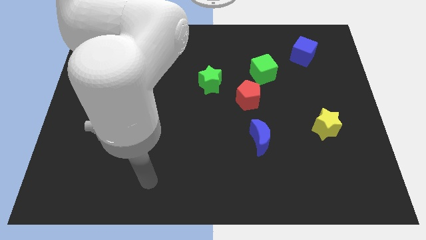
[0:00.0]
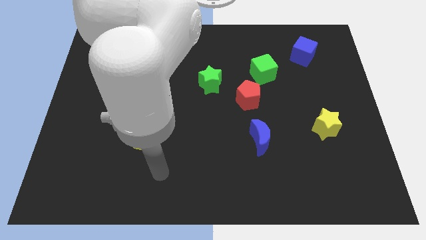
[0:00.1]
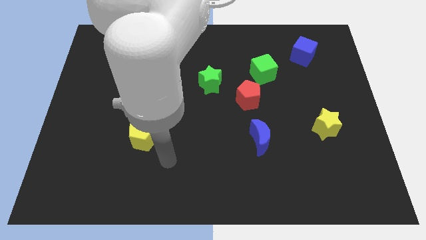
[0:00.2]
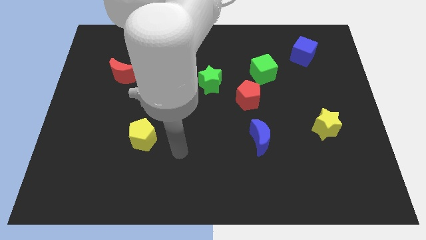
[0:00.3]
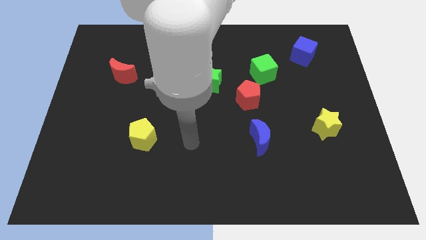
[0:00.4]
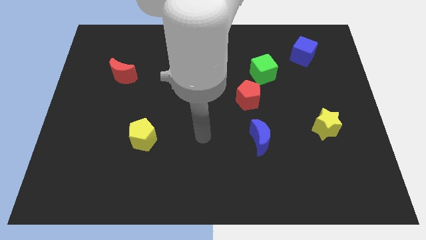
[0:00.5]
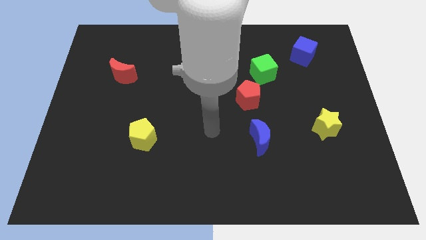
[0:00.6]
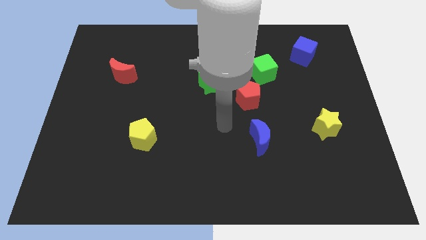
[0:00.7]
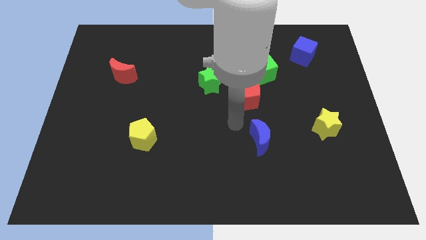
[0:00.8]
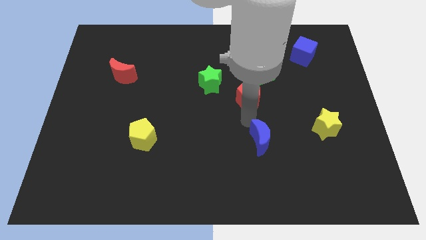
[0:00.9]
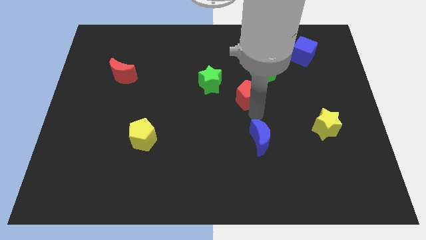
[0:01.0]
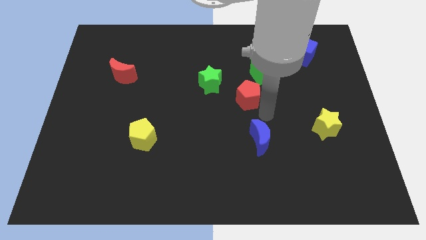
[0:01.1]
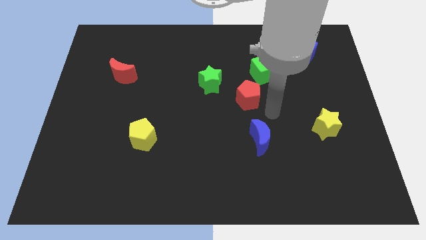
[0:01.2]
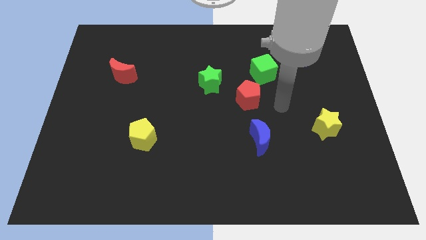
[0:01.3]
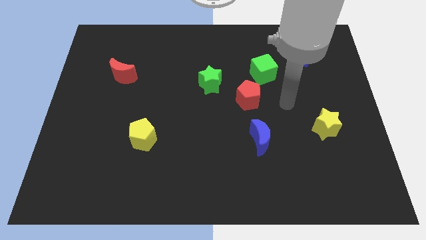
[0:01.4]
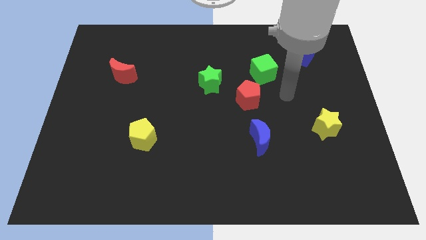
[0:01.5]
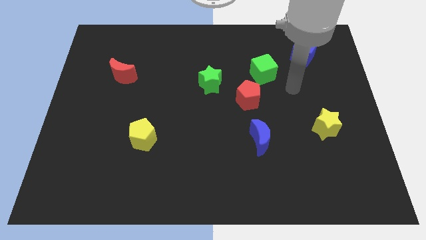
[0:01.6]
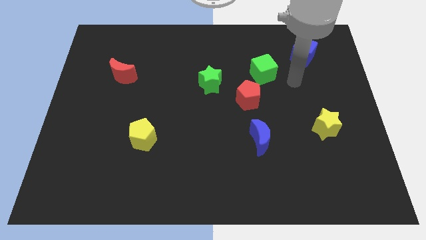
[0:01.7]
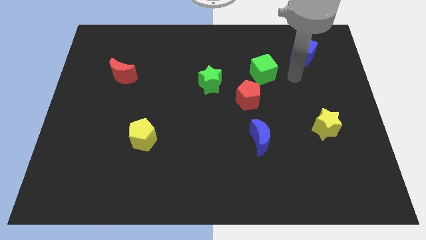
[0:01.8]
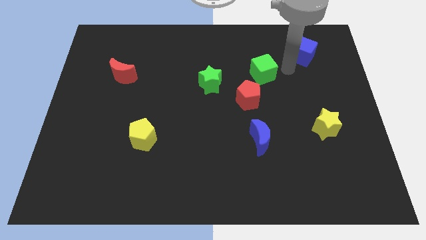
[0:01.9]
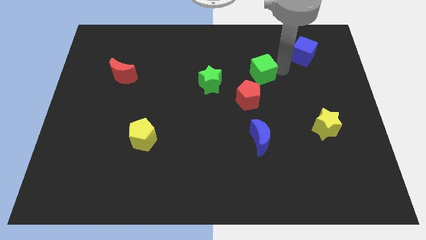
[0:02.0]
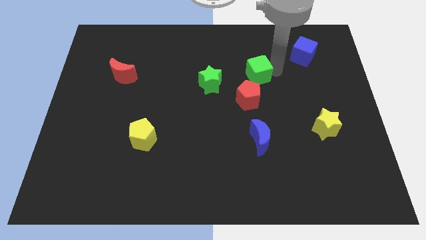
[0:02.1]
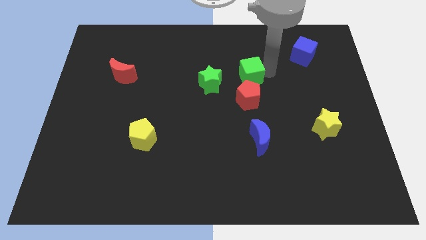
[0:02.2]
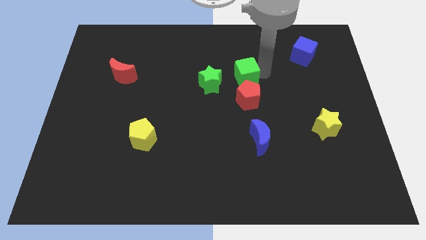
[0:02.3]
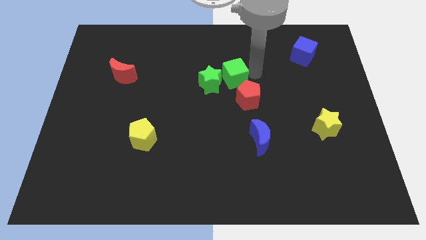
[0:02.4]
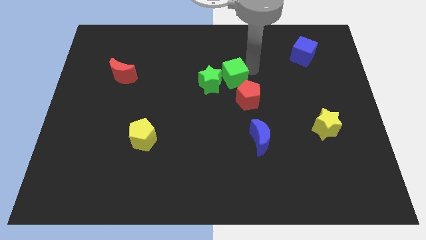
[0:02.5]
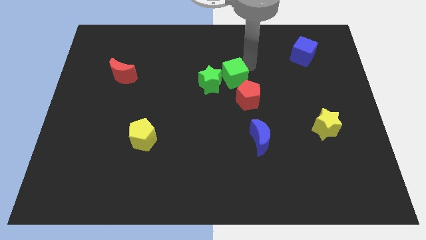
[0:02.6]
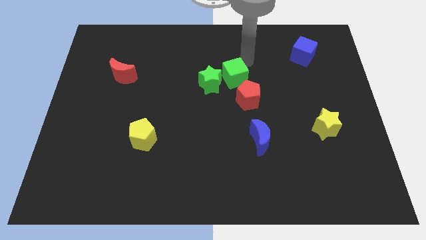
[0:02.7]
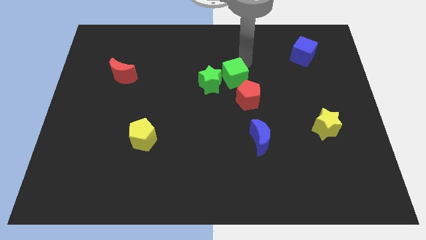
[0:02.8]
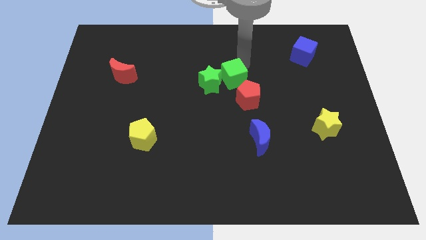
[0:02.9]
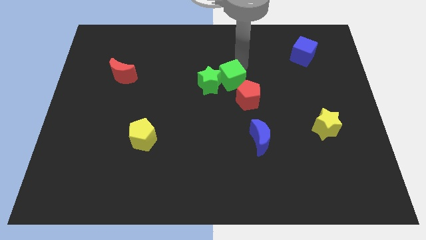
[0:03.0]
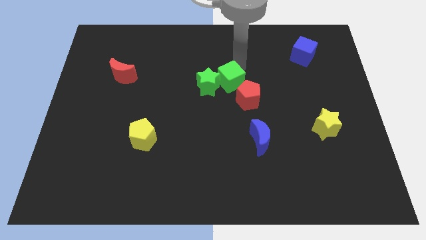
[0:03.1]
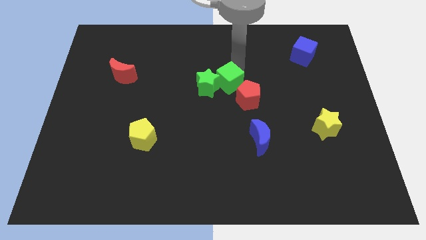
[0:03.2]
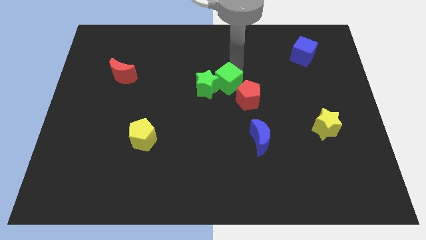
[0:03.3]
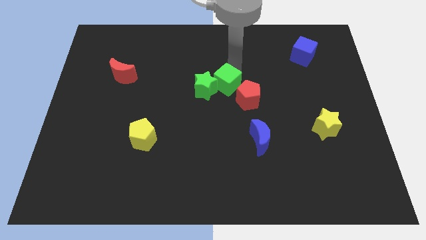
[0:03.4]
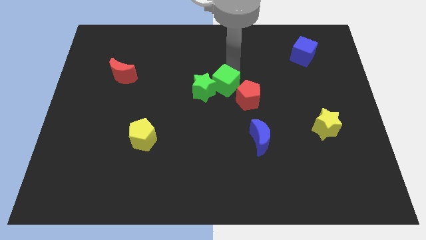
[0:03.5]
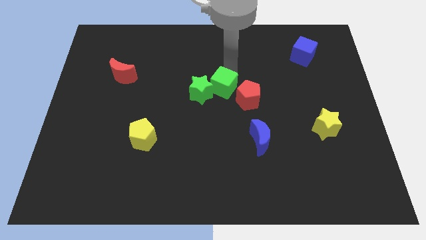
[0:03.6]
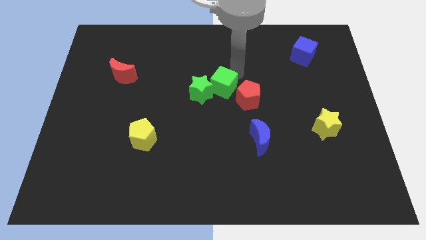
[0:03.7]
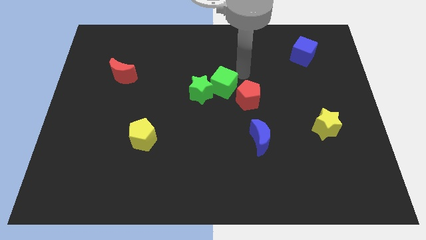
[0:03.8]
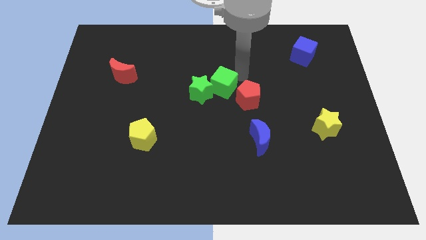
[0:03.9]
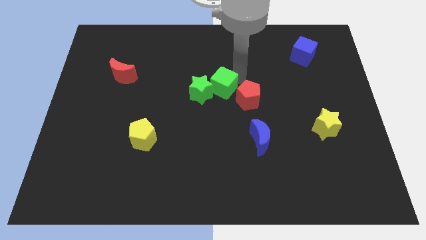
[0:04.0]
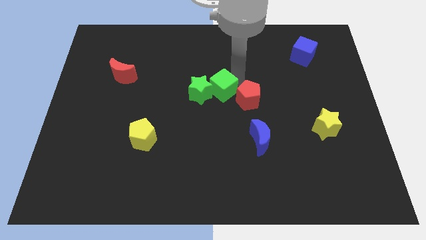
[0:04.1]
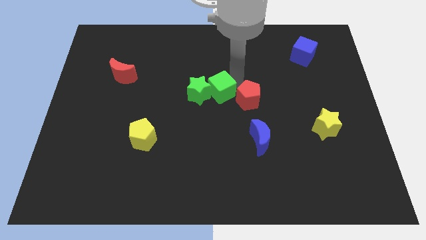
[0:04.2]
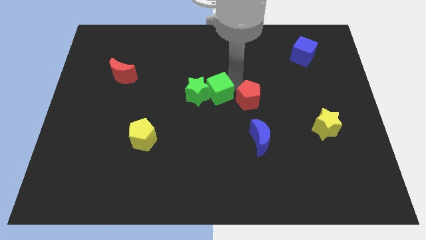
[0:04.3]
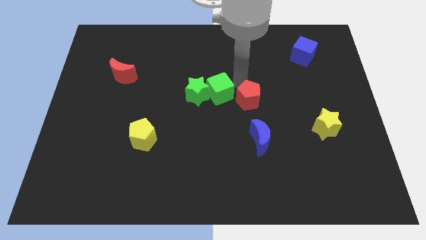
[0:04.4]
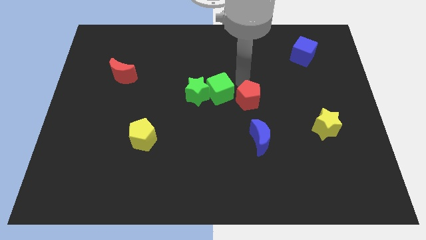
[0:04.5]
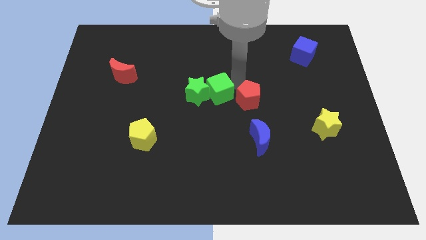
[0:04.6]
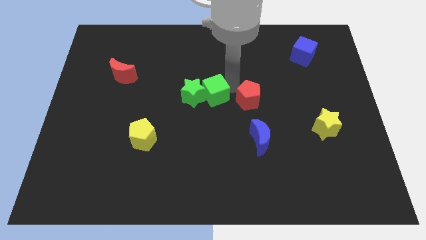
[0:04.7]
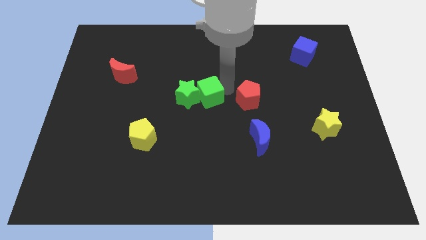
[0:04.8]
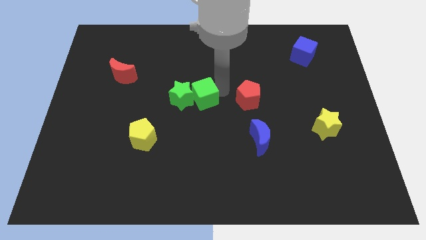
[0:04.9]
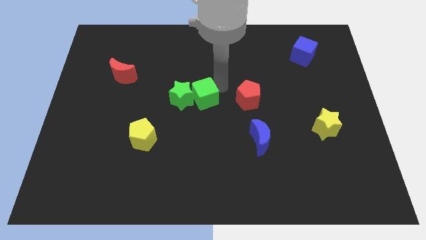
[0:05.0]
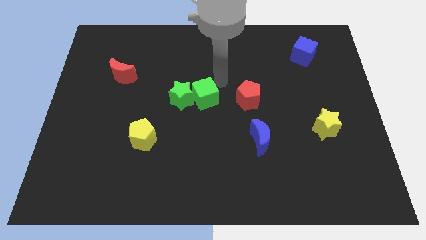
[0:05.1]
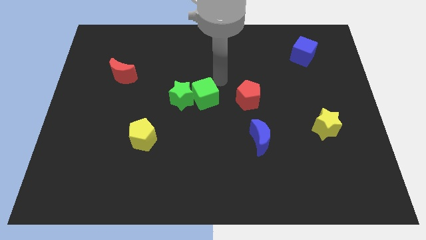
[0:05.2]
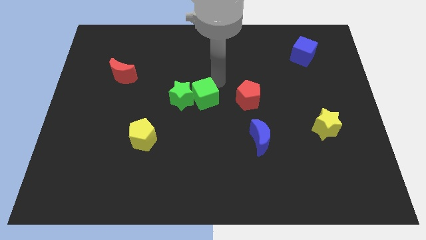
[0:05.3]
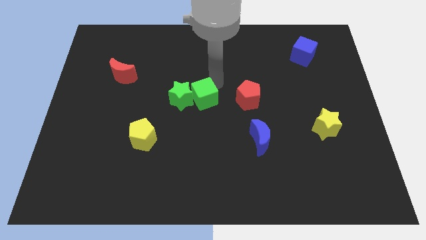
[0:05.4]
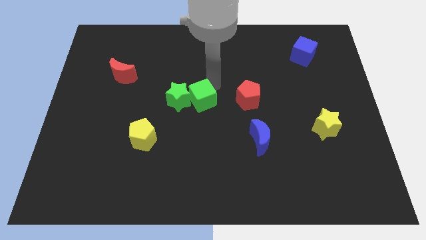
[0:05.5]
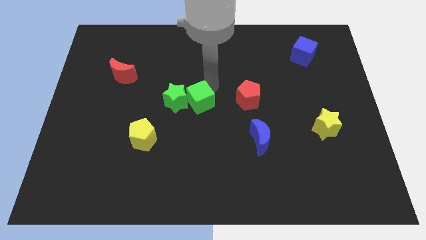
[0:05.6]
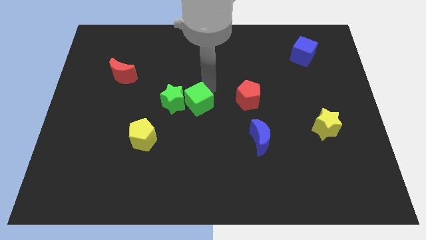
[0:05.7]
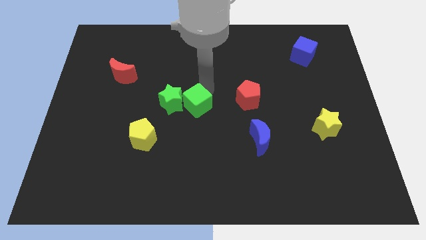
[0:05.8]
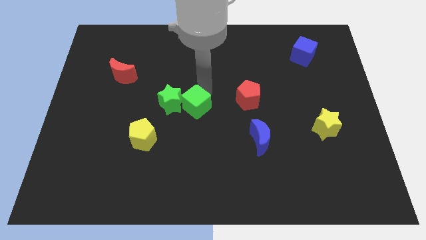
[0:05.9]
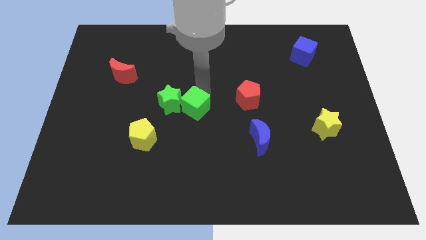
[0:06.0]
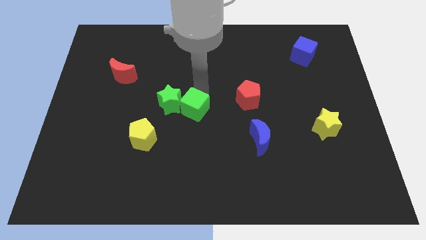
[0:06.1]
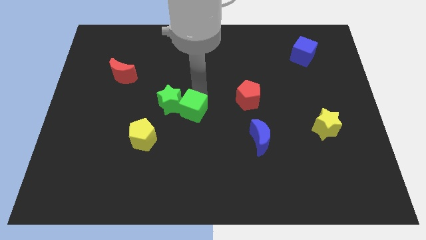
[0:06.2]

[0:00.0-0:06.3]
move the green cube downwards and to the left

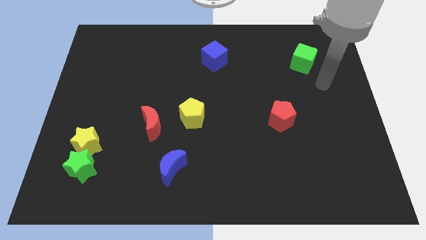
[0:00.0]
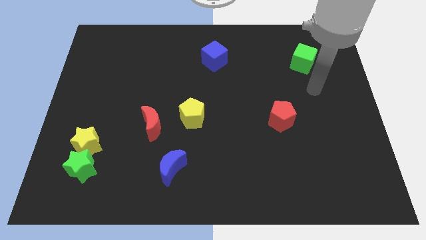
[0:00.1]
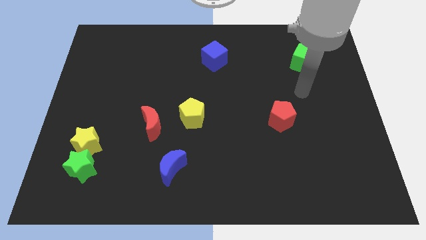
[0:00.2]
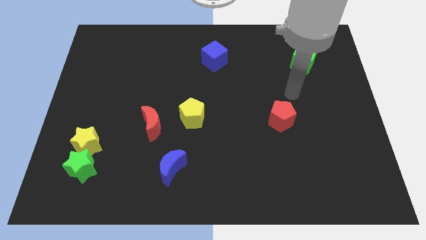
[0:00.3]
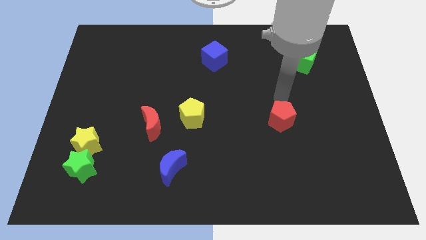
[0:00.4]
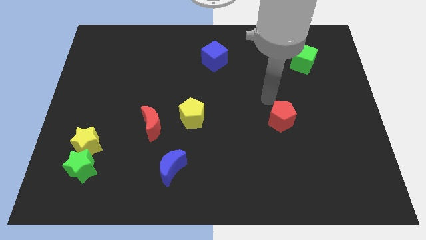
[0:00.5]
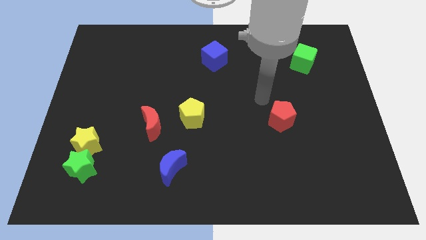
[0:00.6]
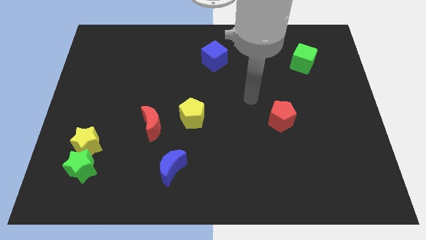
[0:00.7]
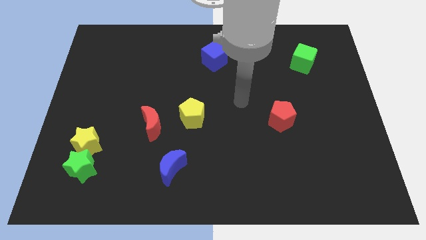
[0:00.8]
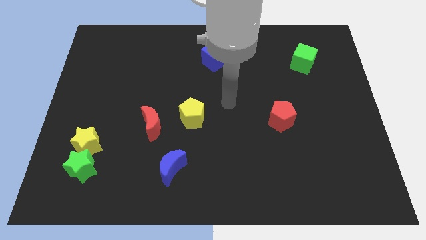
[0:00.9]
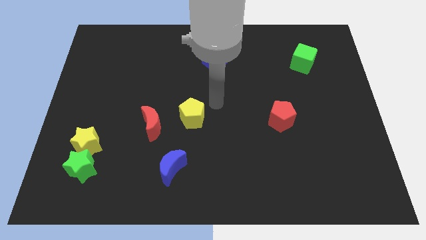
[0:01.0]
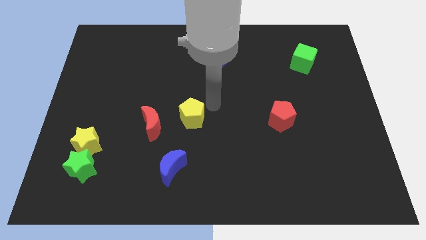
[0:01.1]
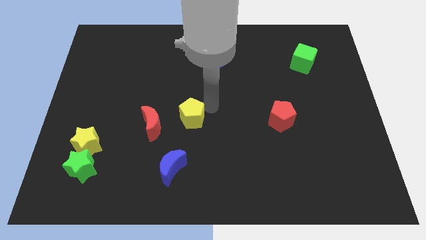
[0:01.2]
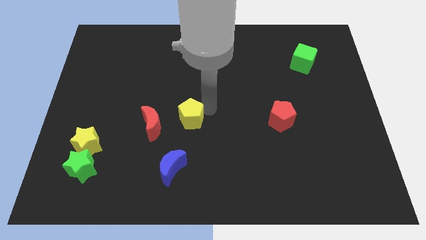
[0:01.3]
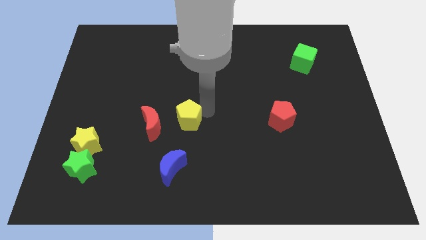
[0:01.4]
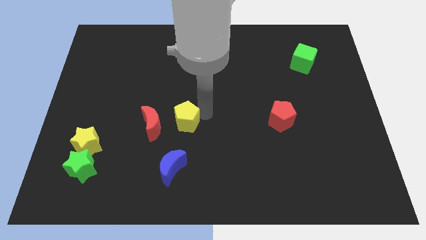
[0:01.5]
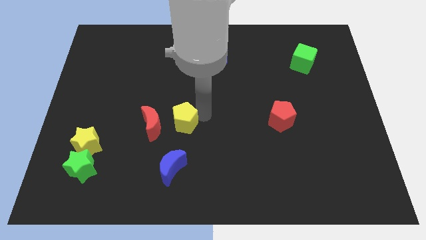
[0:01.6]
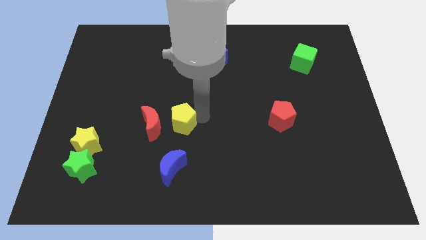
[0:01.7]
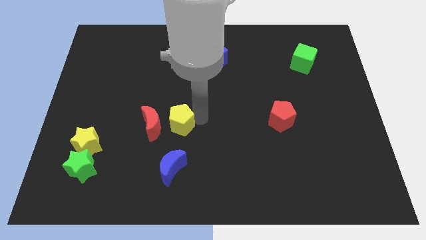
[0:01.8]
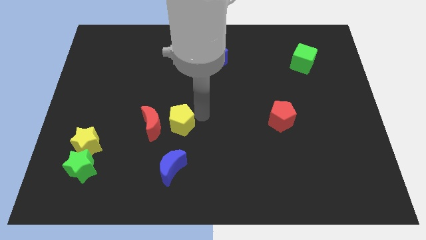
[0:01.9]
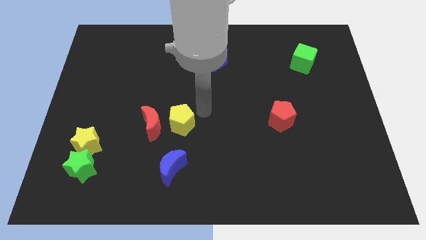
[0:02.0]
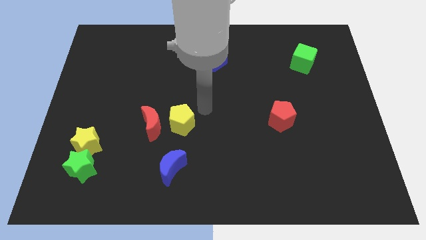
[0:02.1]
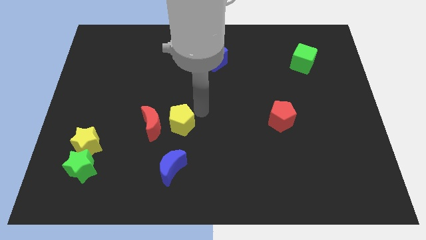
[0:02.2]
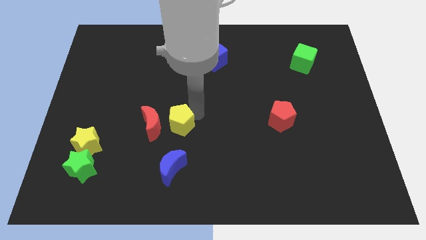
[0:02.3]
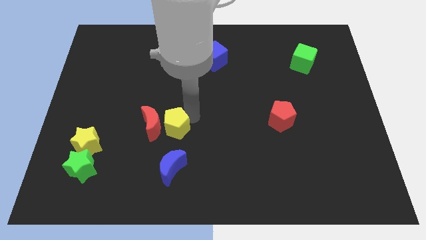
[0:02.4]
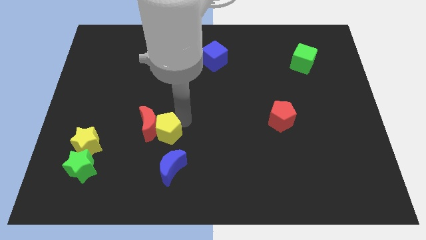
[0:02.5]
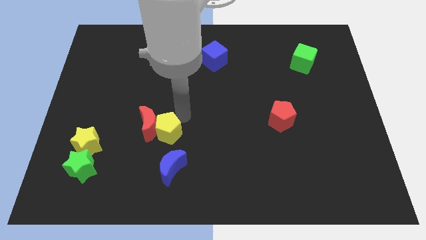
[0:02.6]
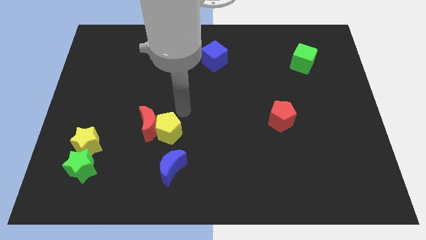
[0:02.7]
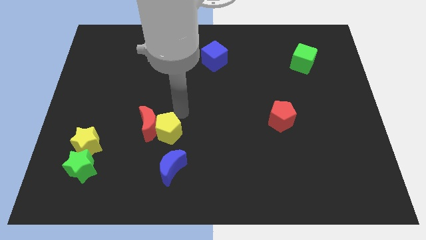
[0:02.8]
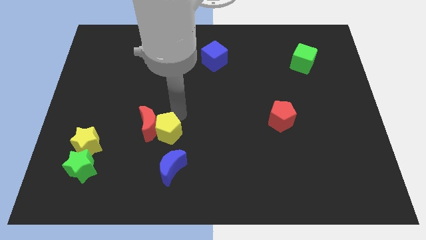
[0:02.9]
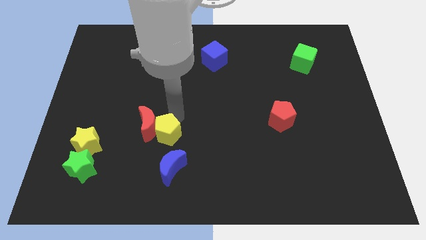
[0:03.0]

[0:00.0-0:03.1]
push the yellow pentagon diagonally down and left a little bit
